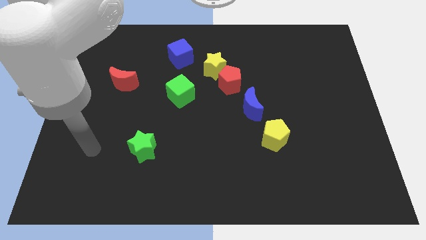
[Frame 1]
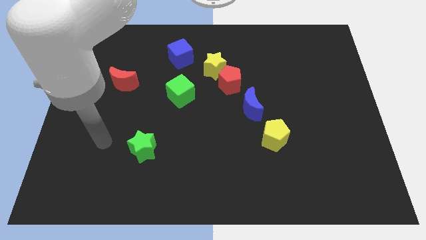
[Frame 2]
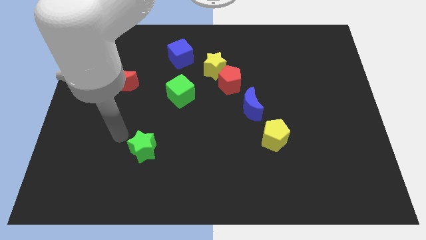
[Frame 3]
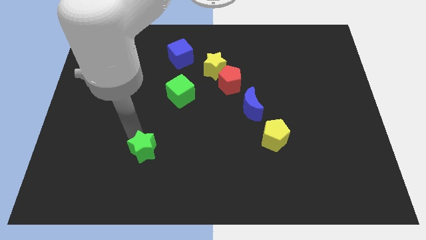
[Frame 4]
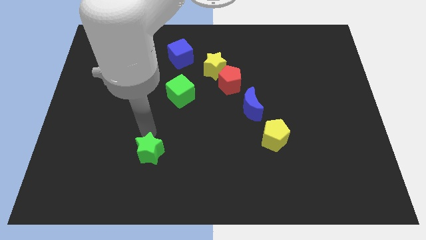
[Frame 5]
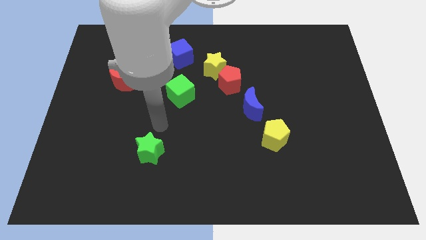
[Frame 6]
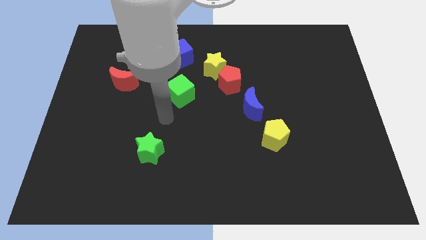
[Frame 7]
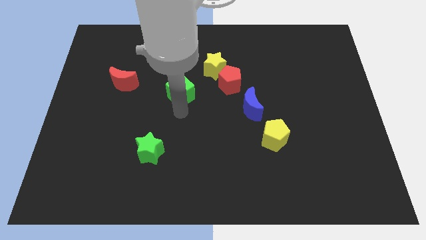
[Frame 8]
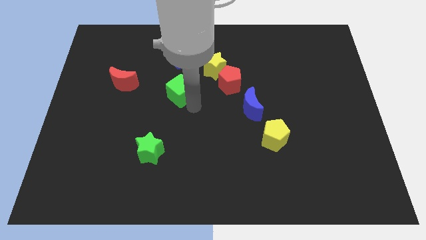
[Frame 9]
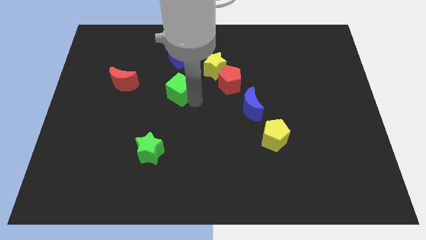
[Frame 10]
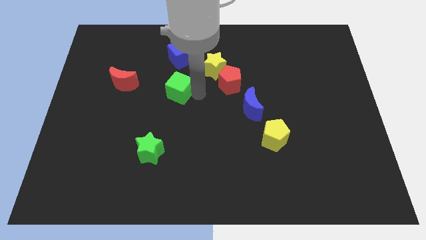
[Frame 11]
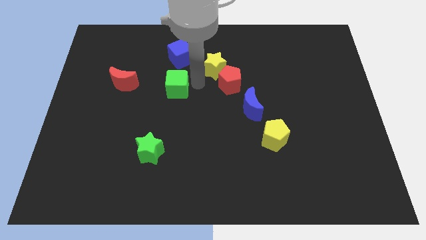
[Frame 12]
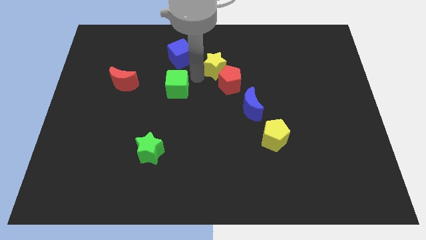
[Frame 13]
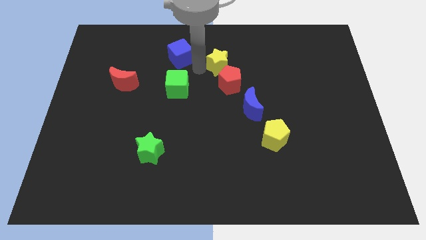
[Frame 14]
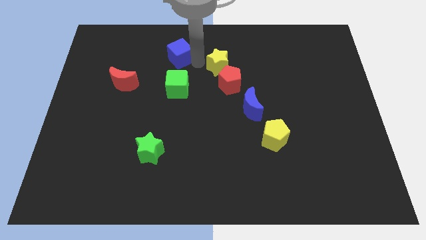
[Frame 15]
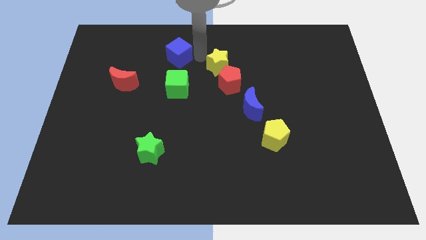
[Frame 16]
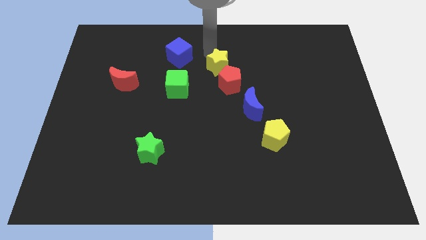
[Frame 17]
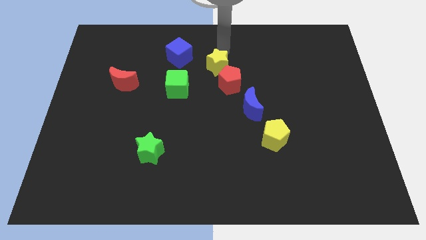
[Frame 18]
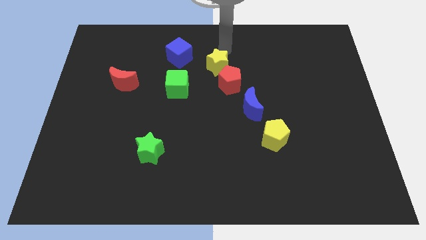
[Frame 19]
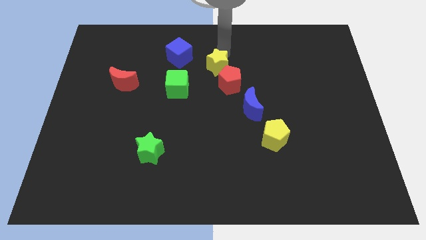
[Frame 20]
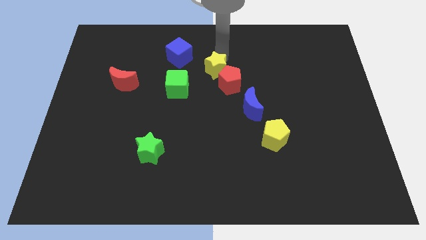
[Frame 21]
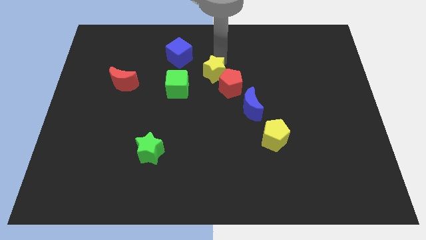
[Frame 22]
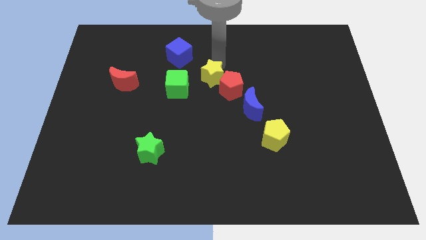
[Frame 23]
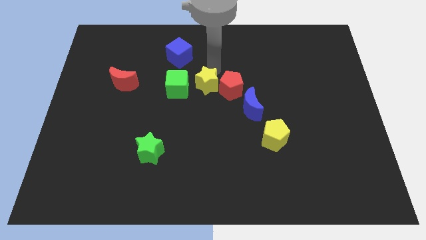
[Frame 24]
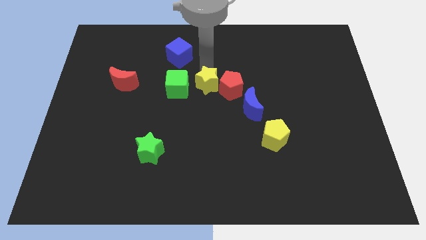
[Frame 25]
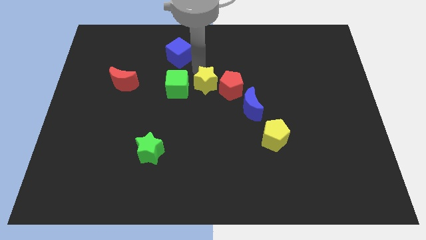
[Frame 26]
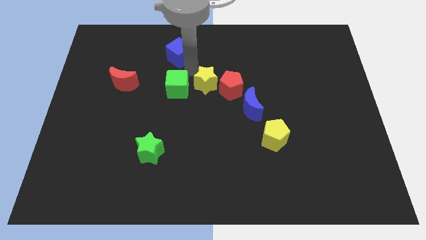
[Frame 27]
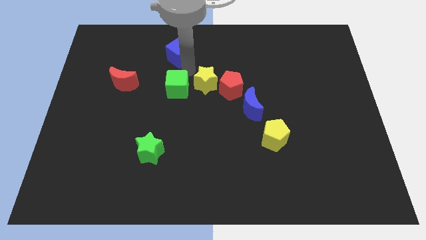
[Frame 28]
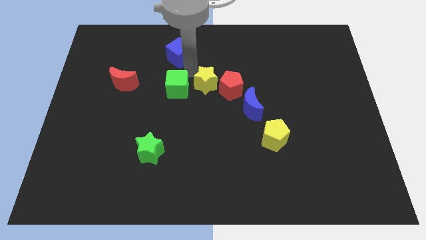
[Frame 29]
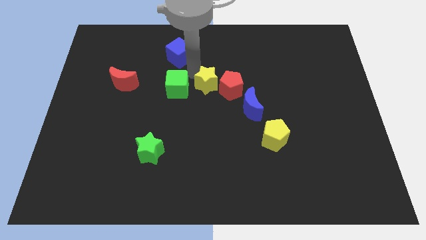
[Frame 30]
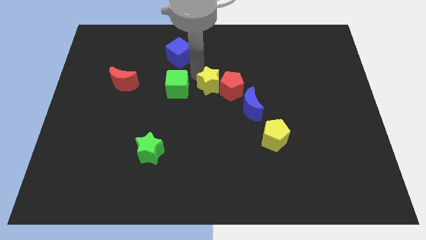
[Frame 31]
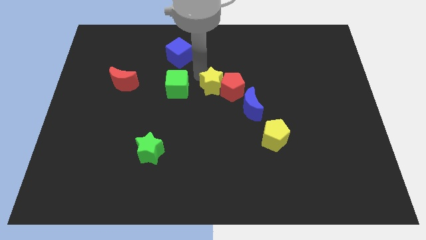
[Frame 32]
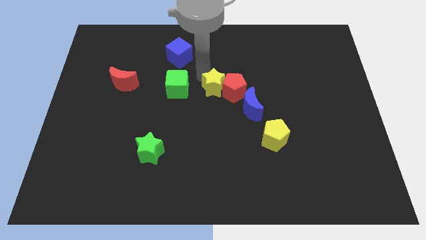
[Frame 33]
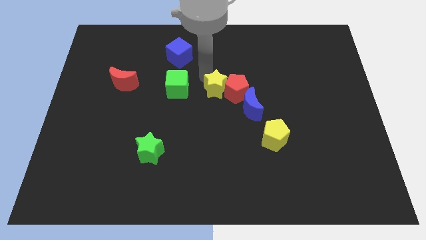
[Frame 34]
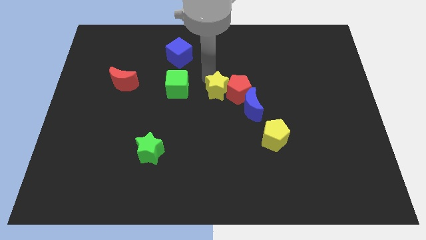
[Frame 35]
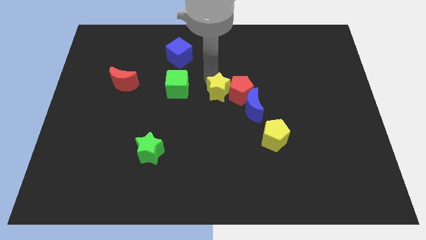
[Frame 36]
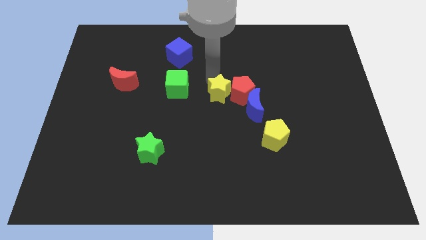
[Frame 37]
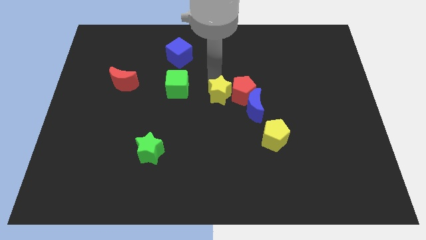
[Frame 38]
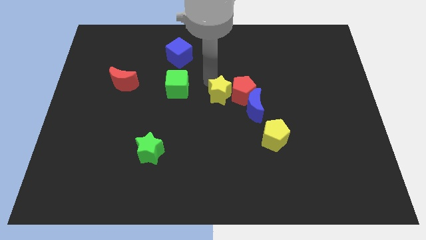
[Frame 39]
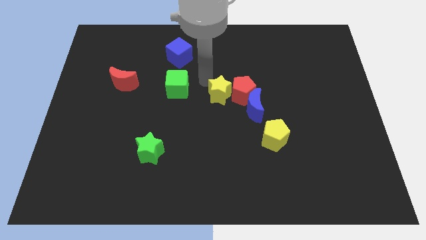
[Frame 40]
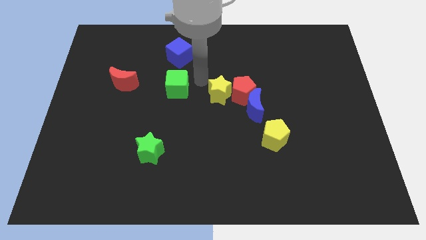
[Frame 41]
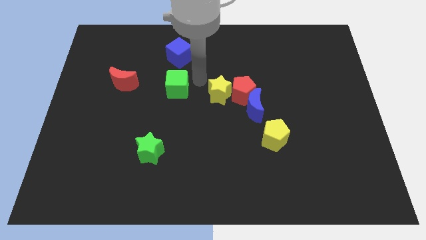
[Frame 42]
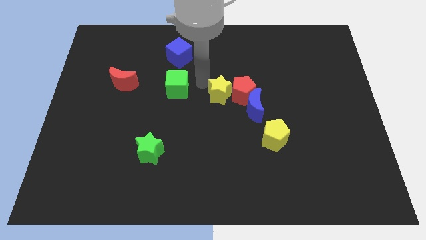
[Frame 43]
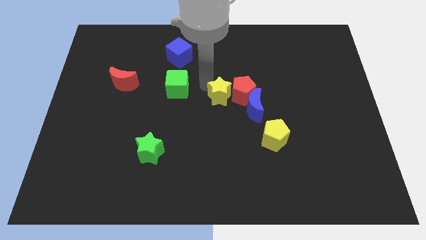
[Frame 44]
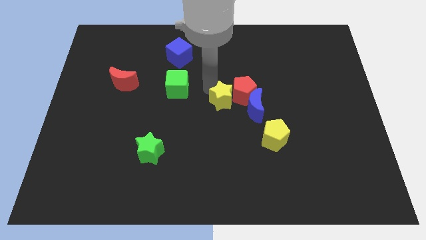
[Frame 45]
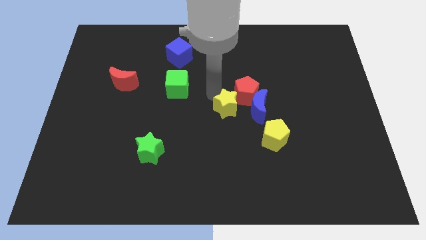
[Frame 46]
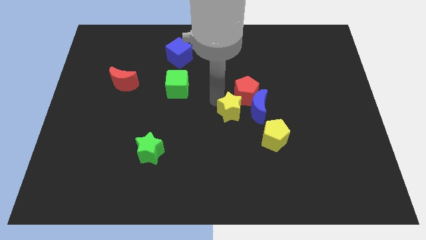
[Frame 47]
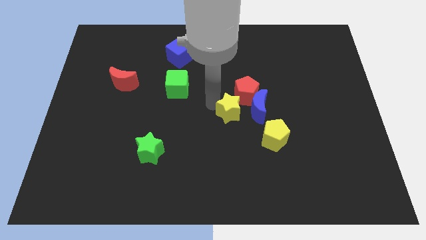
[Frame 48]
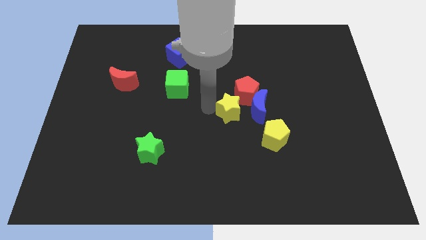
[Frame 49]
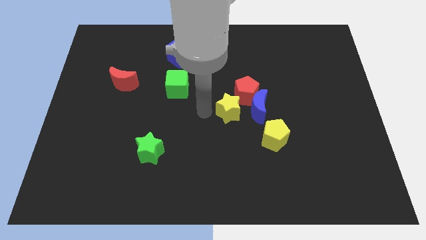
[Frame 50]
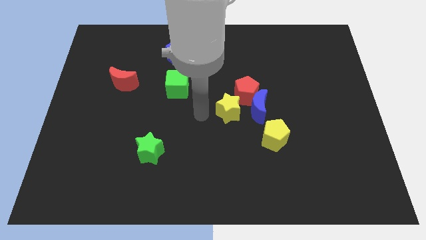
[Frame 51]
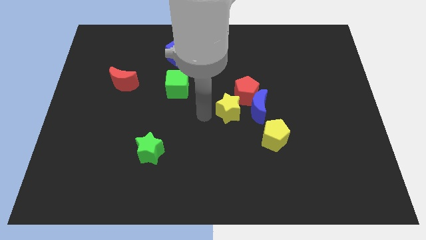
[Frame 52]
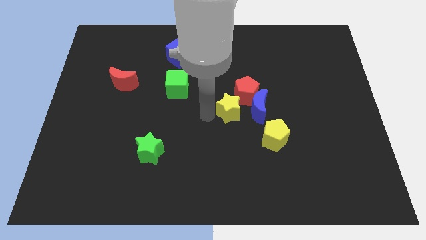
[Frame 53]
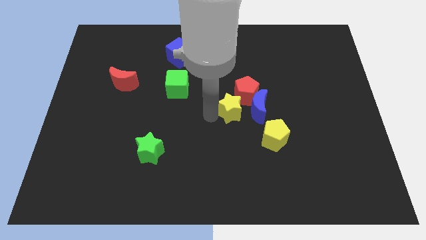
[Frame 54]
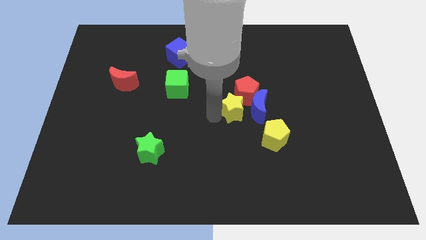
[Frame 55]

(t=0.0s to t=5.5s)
move the yellow star to the blue moon
